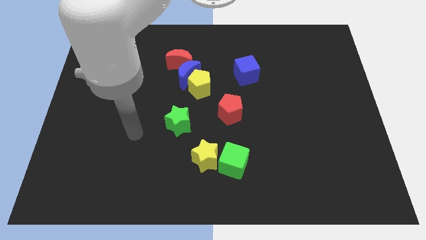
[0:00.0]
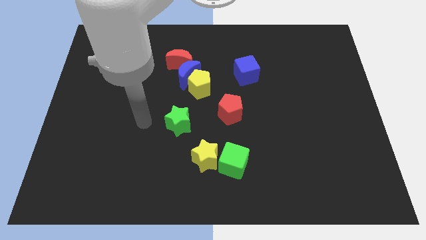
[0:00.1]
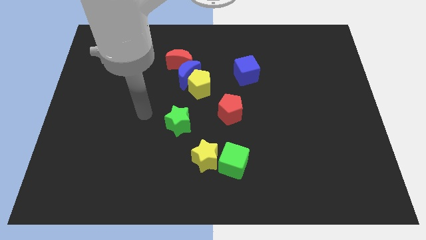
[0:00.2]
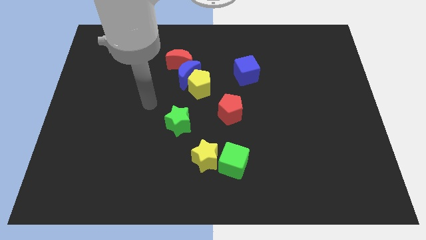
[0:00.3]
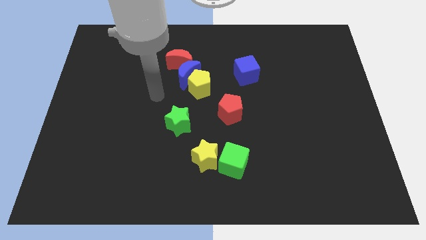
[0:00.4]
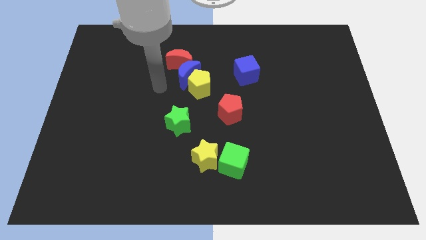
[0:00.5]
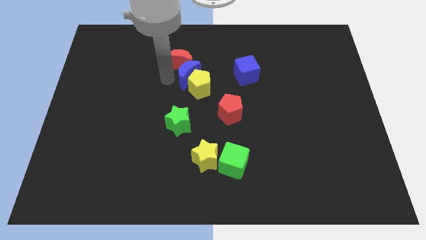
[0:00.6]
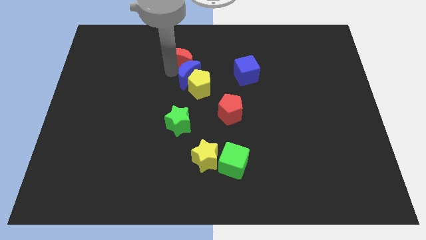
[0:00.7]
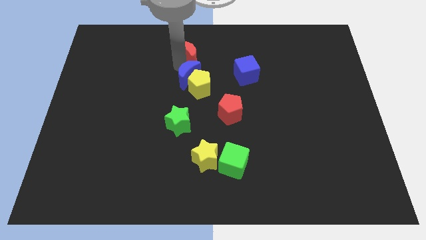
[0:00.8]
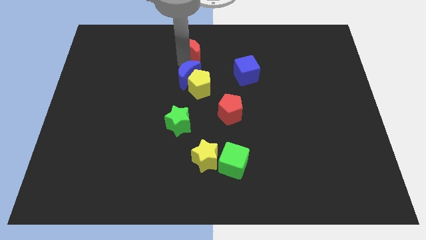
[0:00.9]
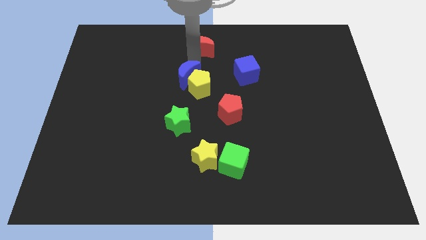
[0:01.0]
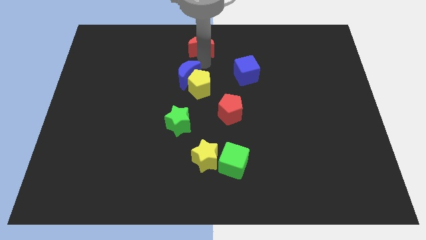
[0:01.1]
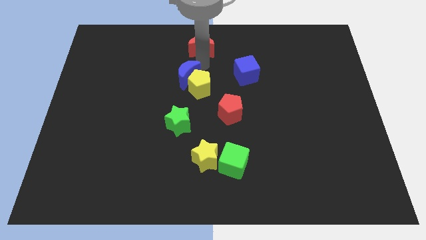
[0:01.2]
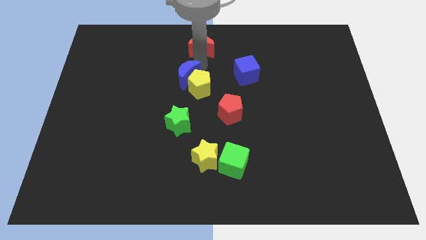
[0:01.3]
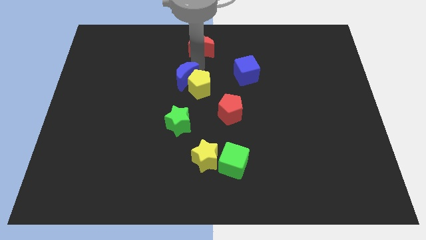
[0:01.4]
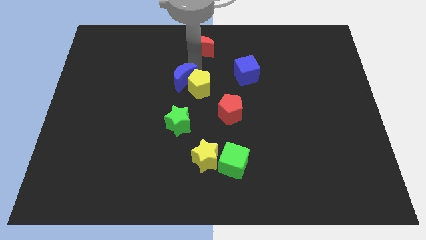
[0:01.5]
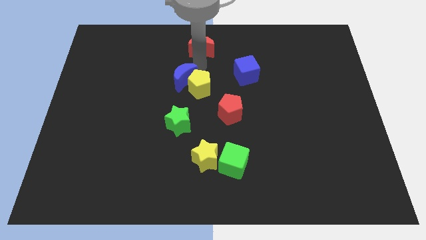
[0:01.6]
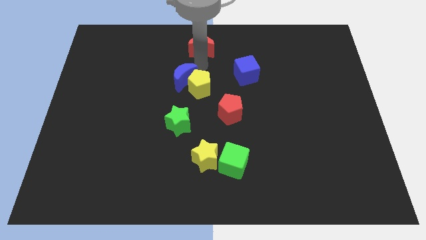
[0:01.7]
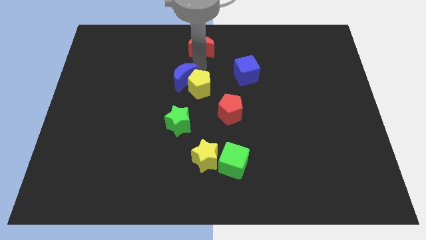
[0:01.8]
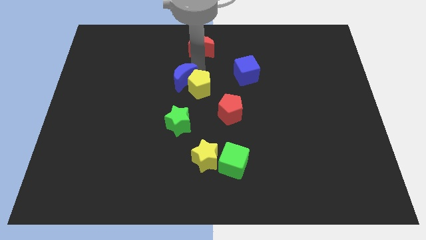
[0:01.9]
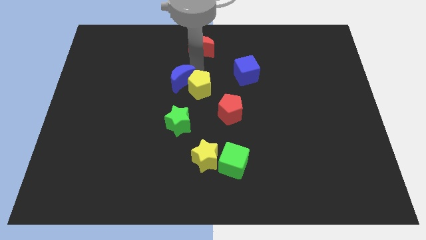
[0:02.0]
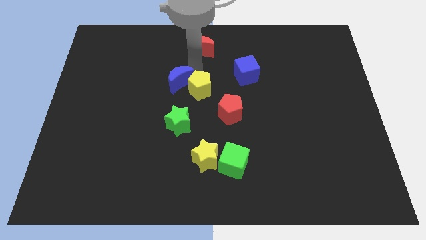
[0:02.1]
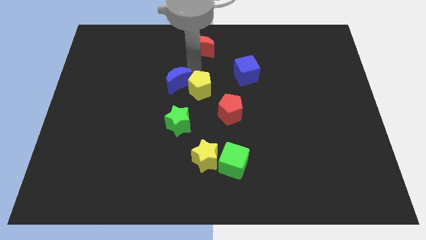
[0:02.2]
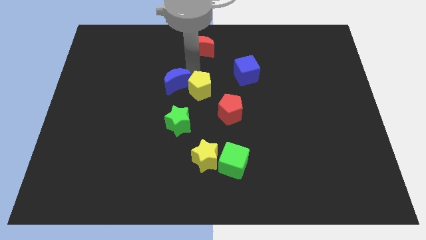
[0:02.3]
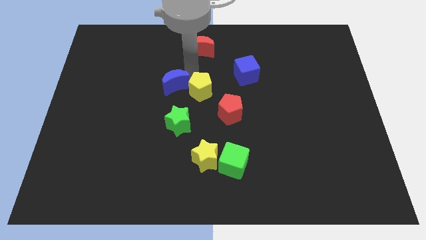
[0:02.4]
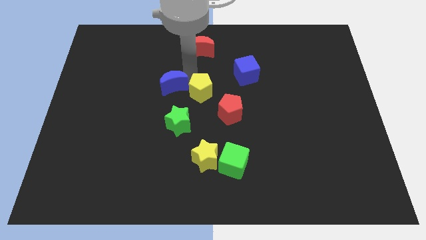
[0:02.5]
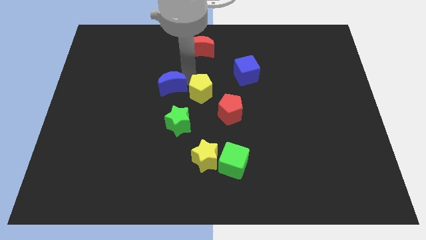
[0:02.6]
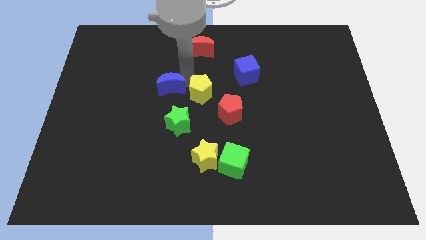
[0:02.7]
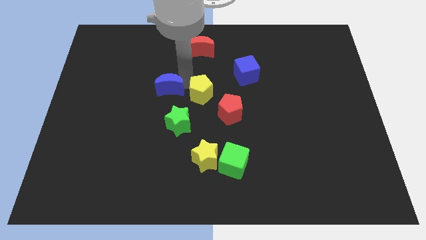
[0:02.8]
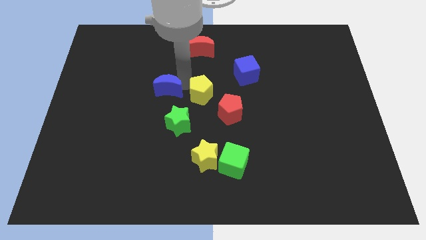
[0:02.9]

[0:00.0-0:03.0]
separate the blue moon from the yellow pentagon and red moon

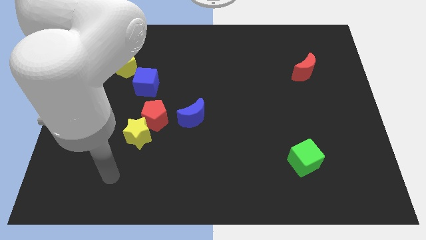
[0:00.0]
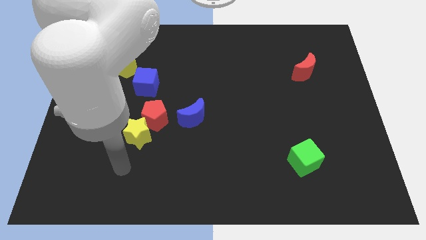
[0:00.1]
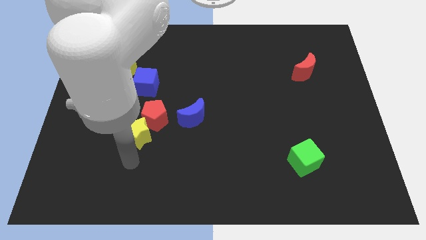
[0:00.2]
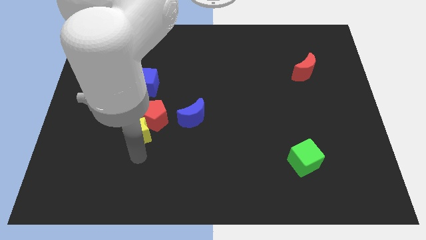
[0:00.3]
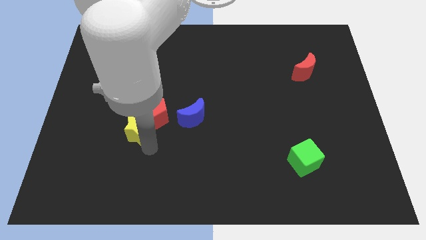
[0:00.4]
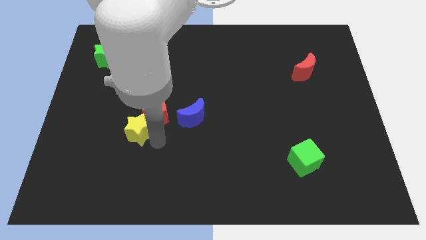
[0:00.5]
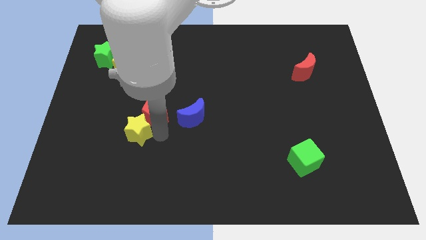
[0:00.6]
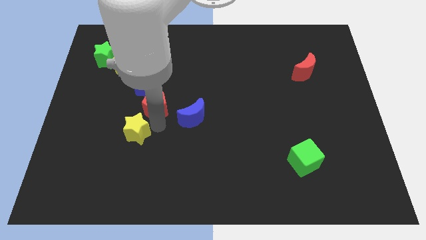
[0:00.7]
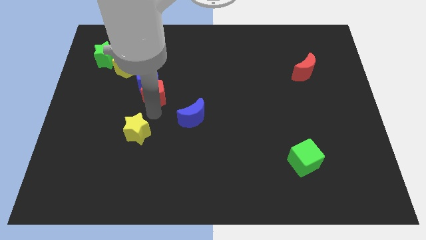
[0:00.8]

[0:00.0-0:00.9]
move the yellow star away from the red pentagon

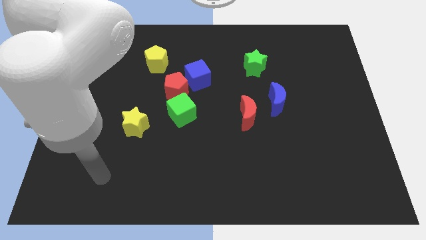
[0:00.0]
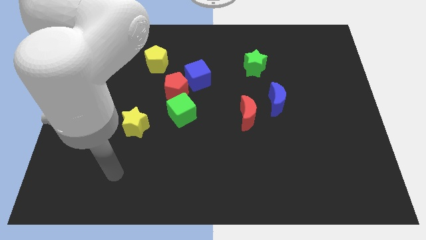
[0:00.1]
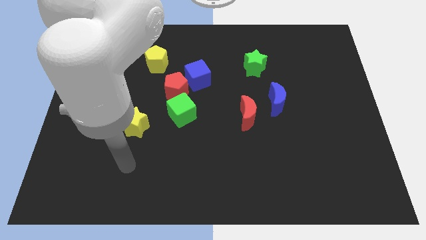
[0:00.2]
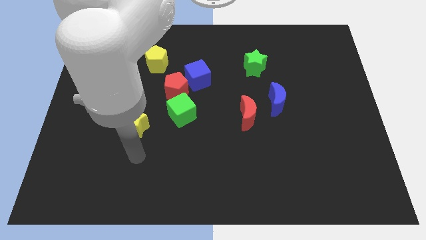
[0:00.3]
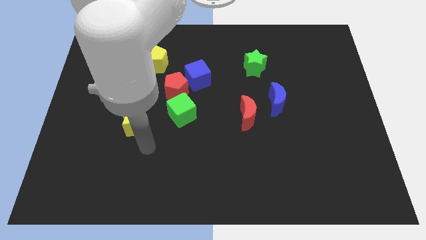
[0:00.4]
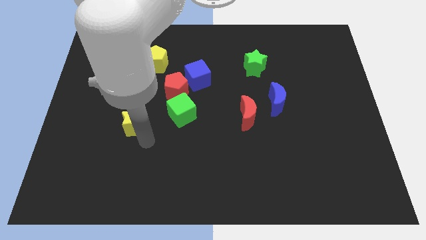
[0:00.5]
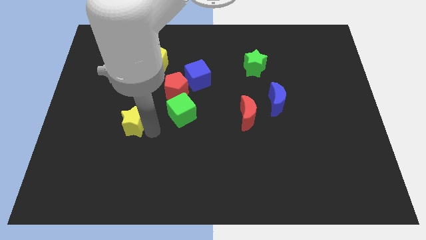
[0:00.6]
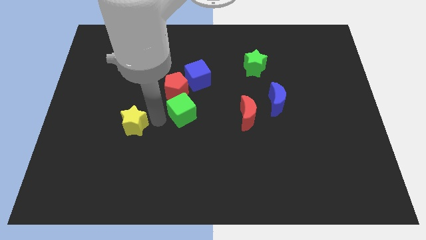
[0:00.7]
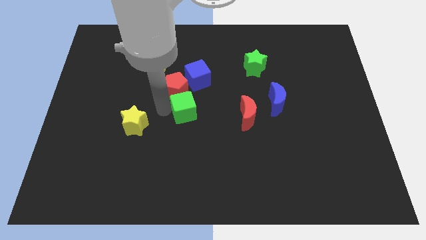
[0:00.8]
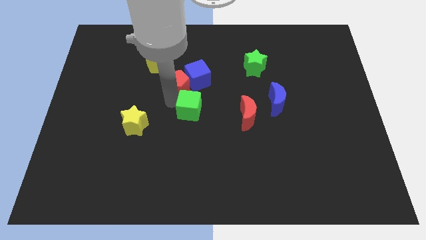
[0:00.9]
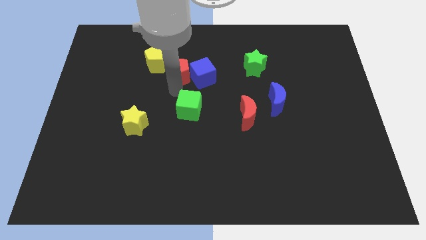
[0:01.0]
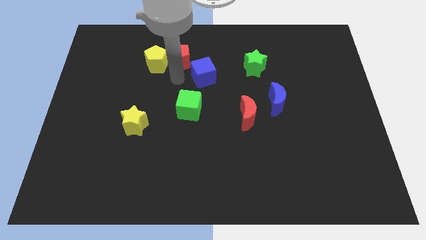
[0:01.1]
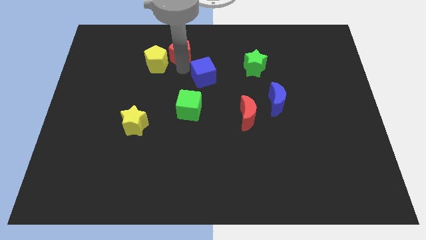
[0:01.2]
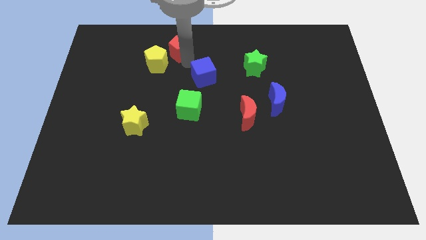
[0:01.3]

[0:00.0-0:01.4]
pull the blue cube apart from the red pentagon

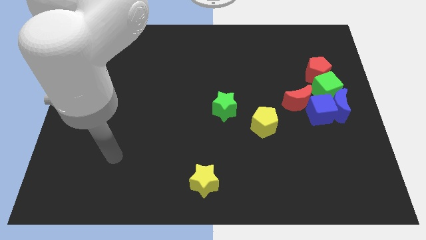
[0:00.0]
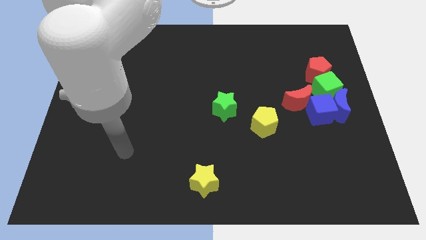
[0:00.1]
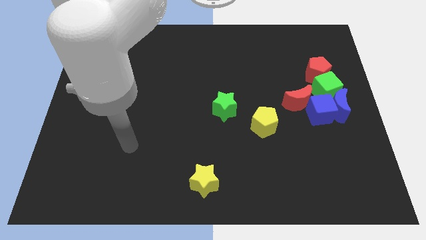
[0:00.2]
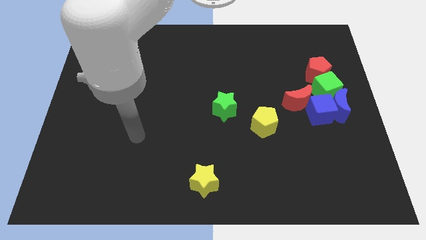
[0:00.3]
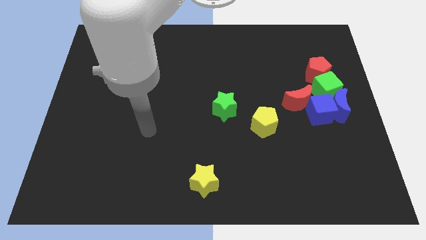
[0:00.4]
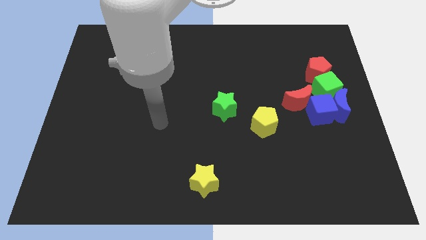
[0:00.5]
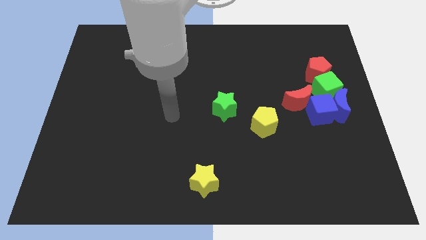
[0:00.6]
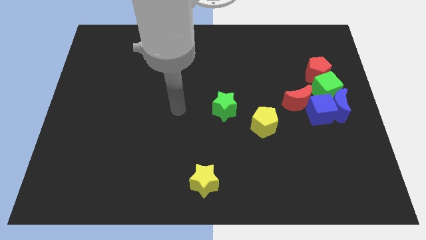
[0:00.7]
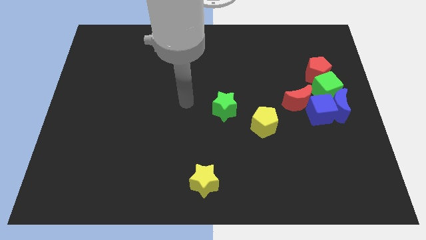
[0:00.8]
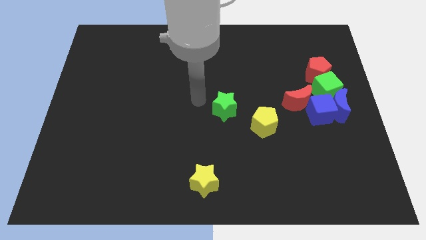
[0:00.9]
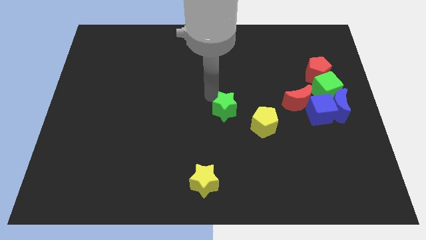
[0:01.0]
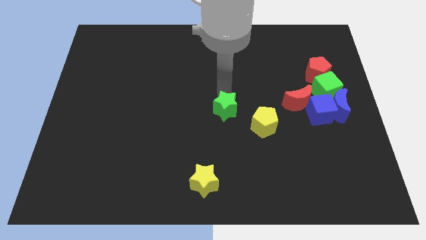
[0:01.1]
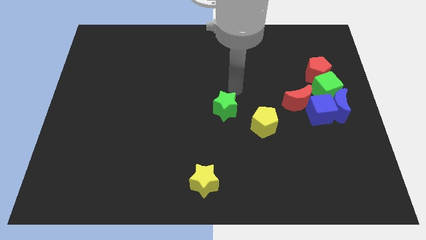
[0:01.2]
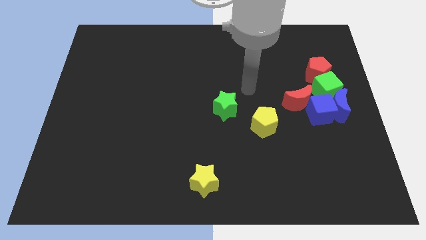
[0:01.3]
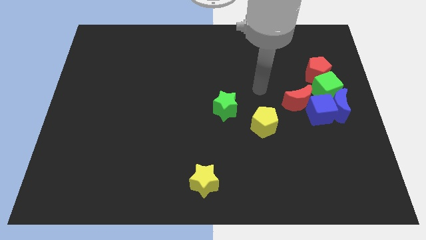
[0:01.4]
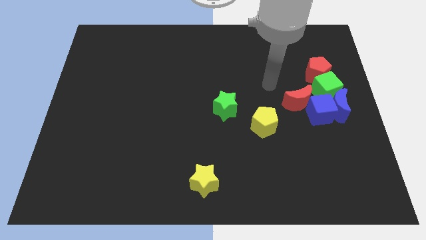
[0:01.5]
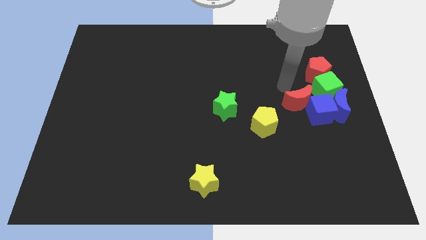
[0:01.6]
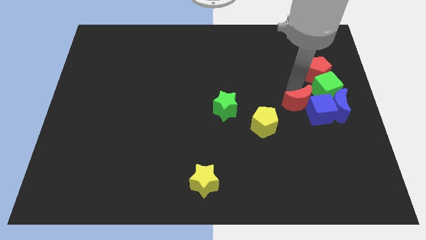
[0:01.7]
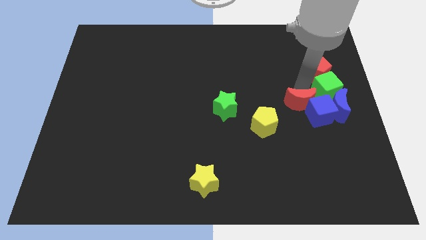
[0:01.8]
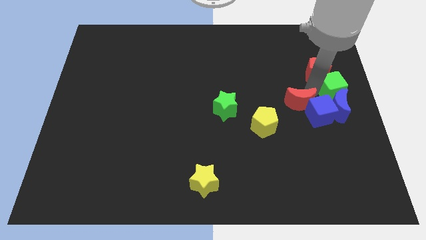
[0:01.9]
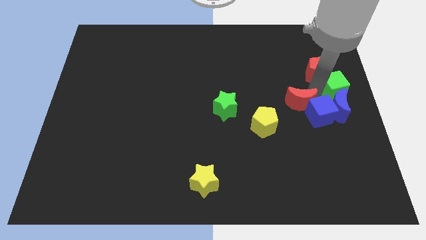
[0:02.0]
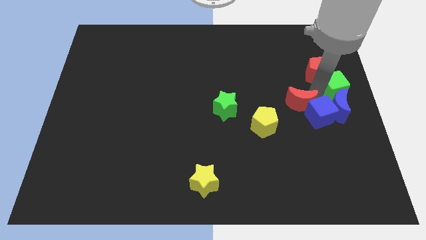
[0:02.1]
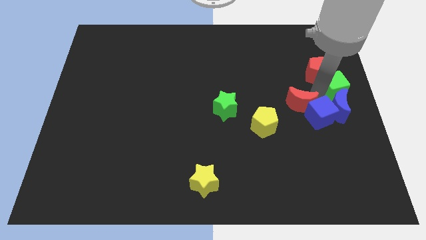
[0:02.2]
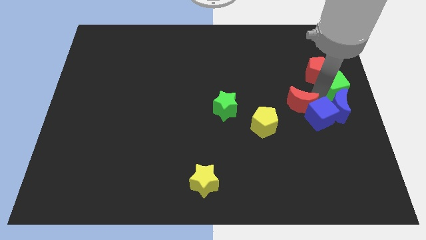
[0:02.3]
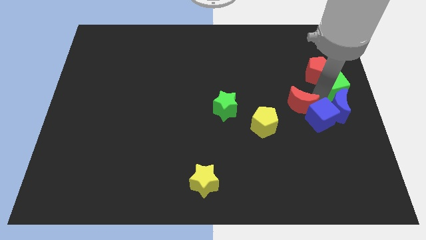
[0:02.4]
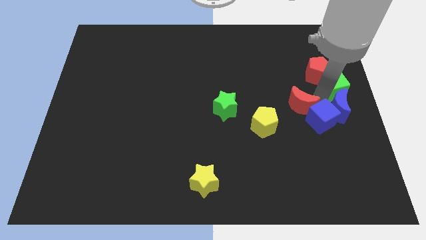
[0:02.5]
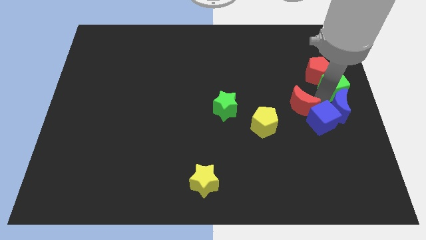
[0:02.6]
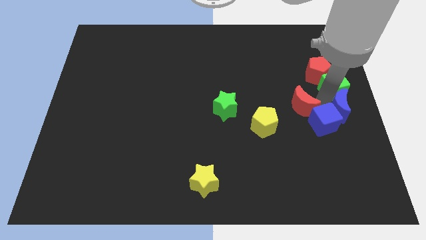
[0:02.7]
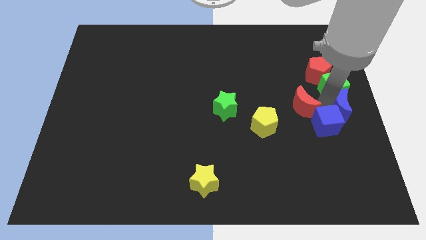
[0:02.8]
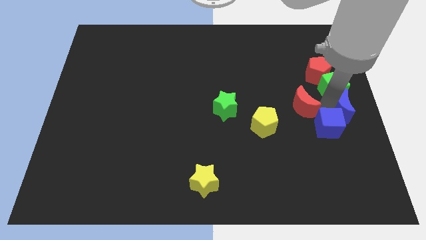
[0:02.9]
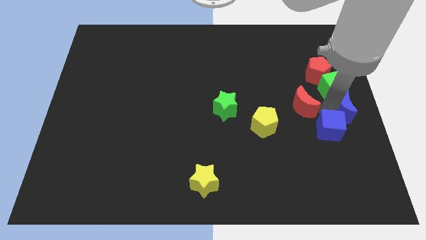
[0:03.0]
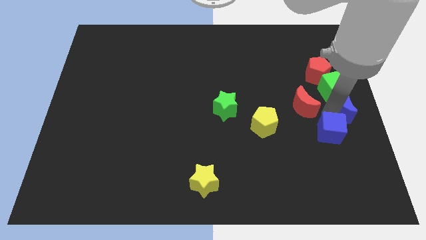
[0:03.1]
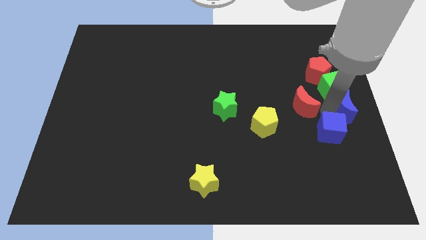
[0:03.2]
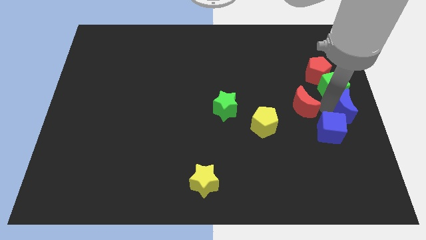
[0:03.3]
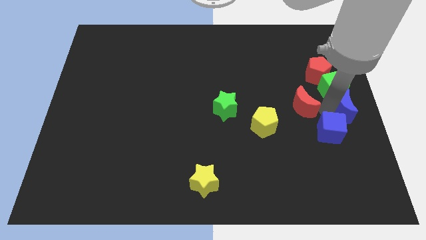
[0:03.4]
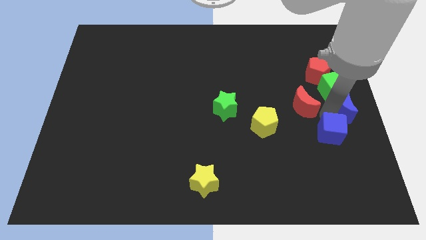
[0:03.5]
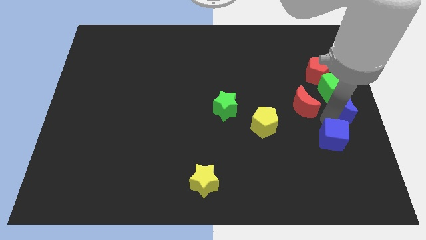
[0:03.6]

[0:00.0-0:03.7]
separate the blue cube from the group

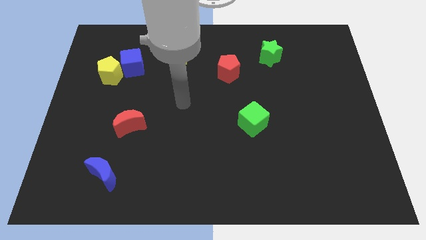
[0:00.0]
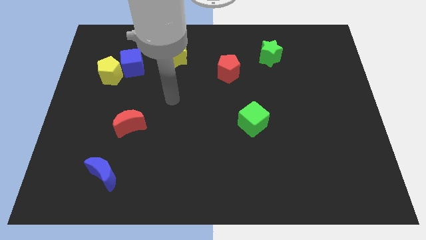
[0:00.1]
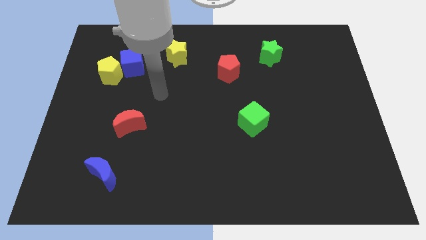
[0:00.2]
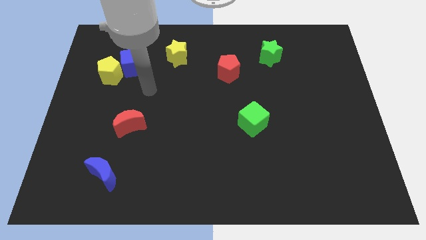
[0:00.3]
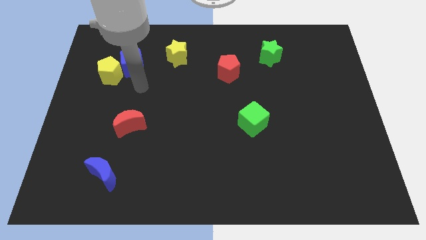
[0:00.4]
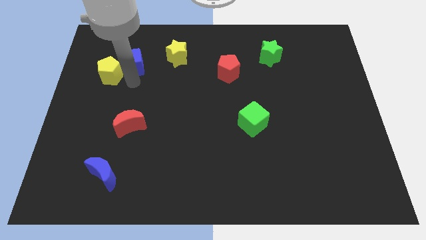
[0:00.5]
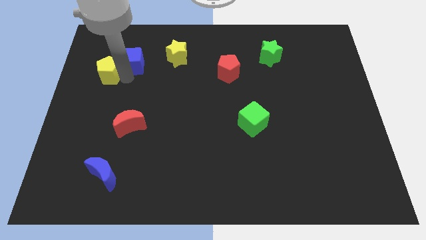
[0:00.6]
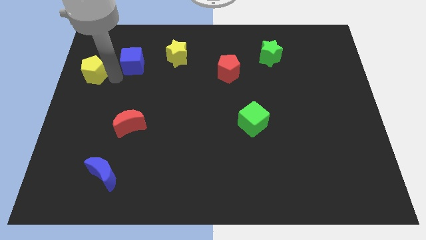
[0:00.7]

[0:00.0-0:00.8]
move the blue cube away from the yellow pentagon
